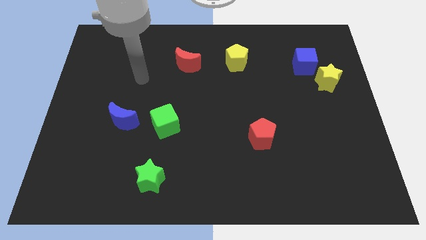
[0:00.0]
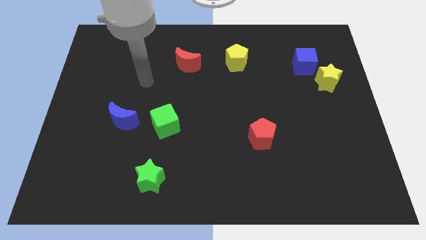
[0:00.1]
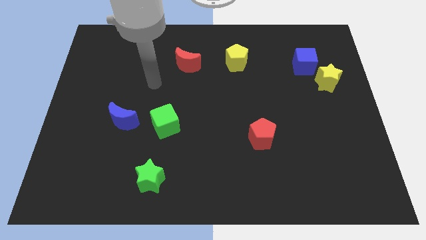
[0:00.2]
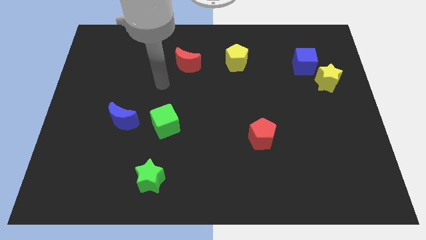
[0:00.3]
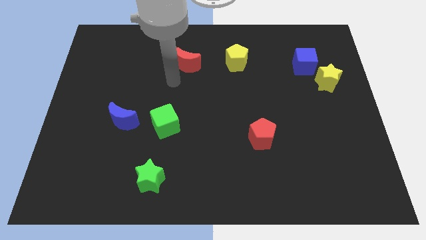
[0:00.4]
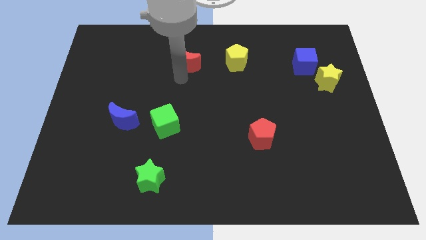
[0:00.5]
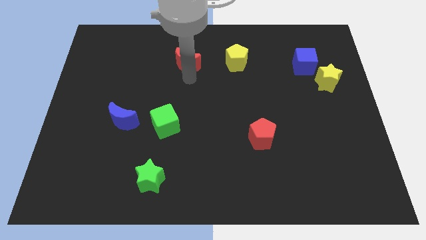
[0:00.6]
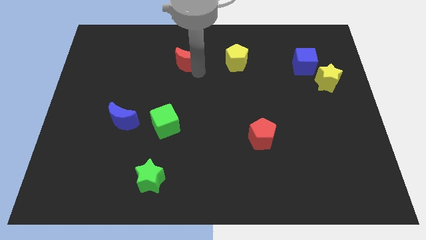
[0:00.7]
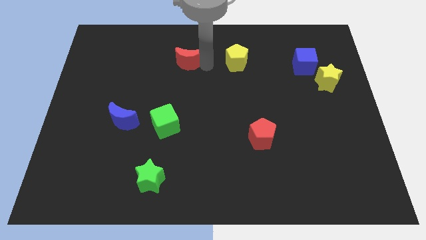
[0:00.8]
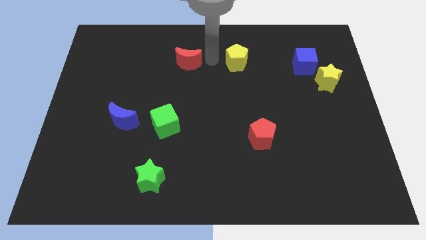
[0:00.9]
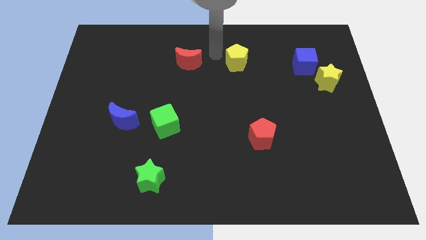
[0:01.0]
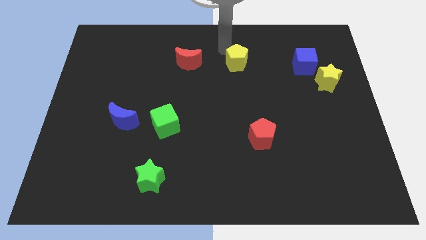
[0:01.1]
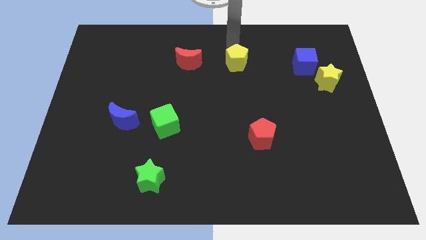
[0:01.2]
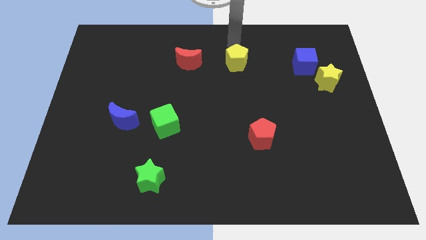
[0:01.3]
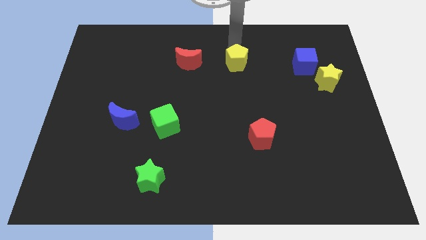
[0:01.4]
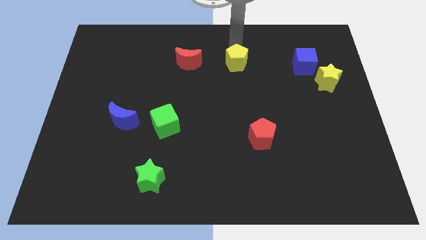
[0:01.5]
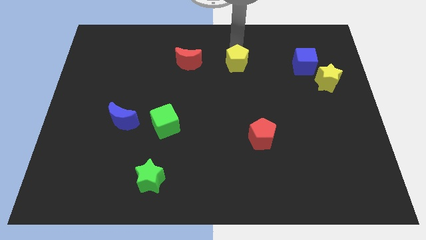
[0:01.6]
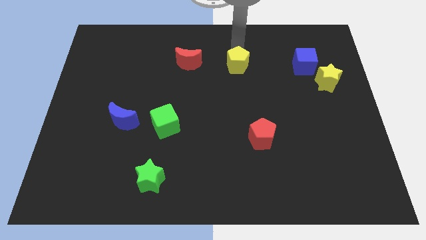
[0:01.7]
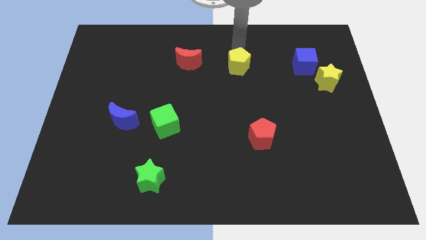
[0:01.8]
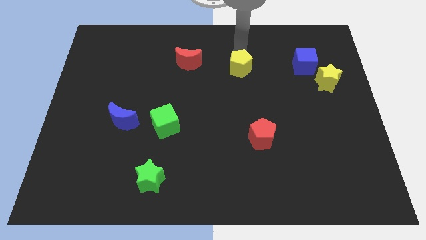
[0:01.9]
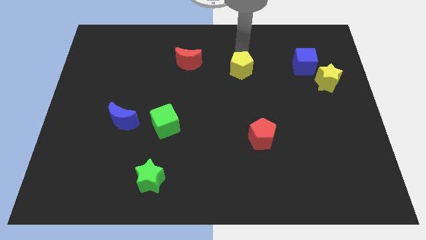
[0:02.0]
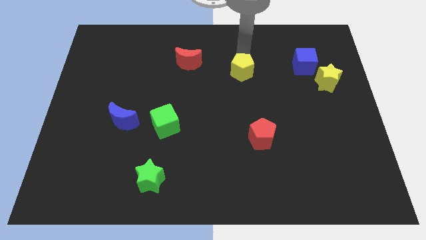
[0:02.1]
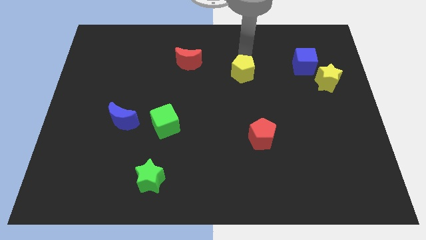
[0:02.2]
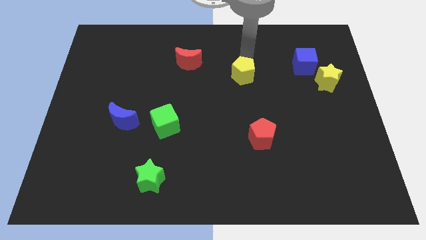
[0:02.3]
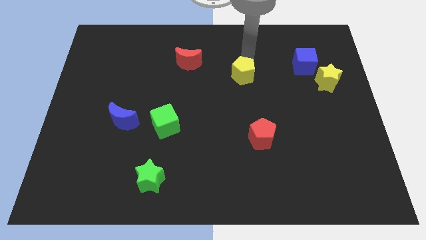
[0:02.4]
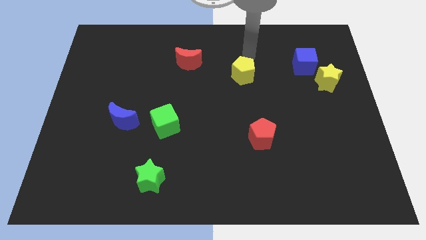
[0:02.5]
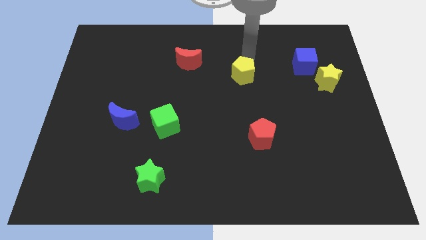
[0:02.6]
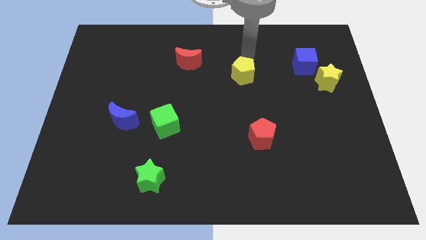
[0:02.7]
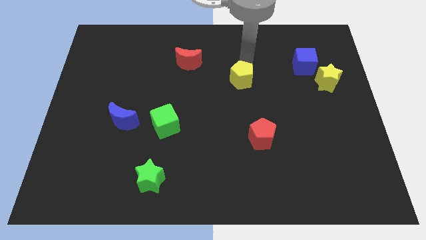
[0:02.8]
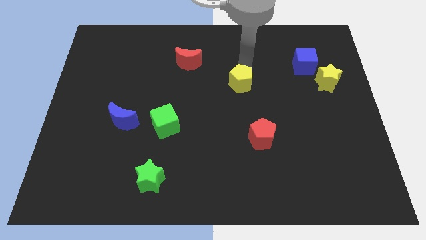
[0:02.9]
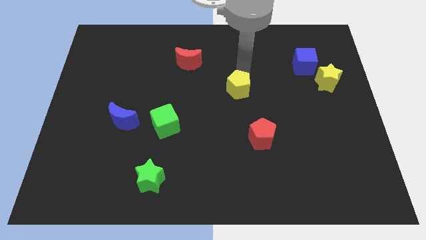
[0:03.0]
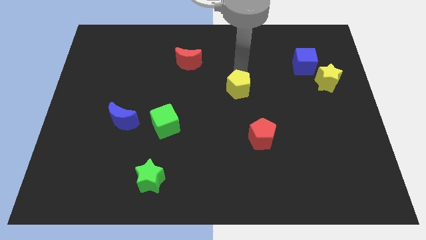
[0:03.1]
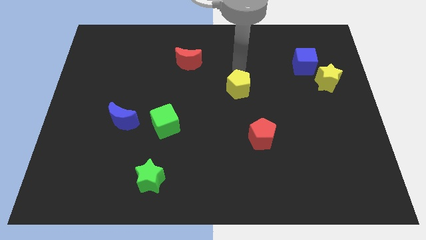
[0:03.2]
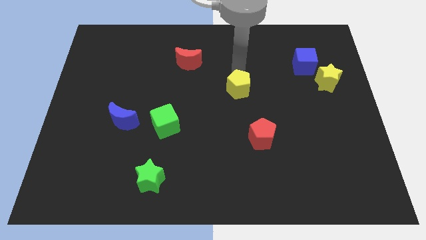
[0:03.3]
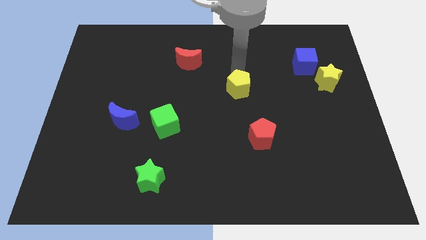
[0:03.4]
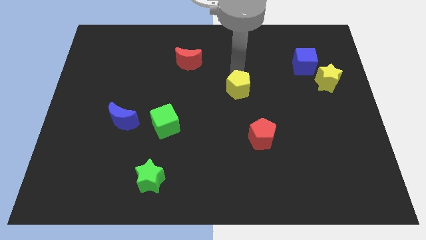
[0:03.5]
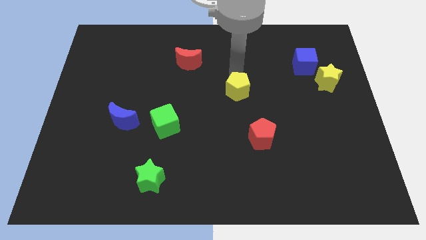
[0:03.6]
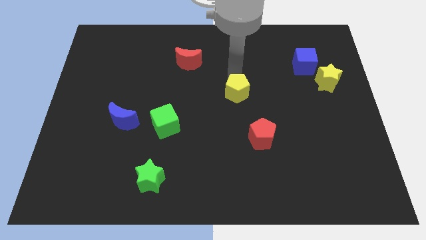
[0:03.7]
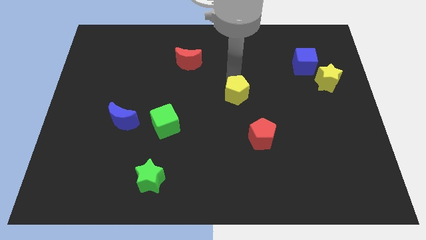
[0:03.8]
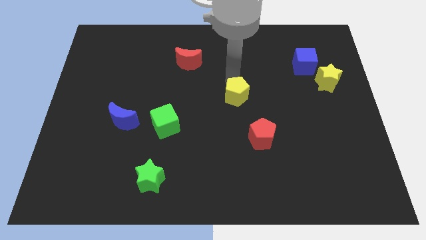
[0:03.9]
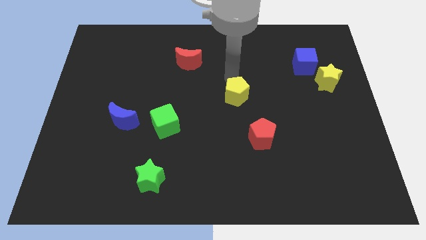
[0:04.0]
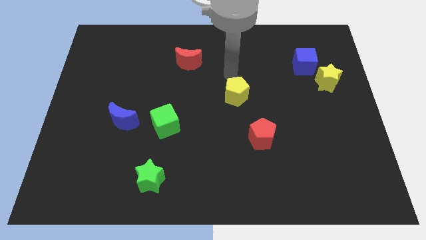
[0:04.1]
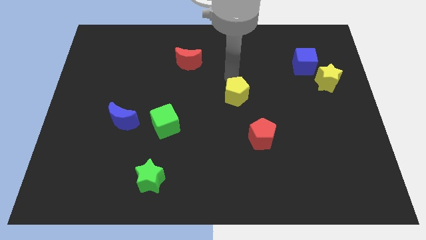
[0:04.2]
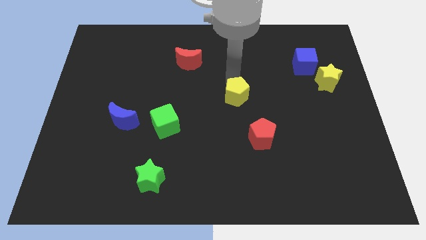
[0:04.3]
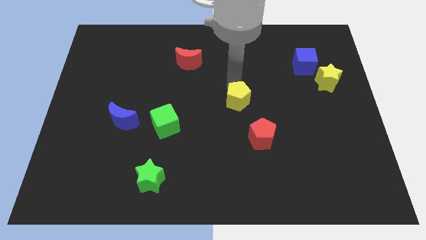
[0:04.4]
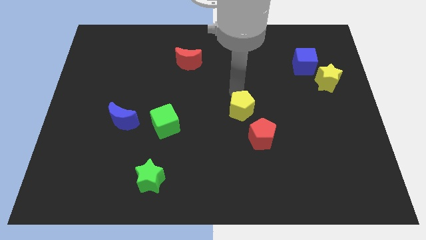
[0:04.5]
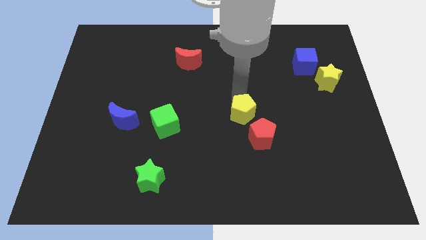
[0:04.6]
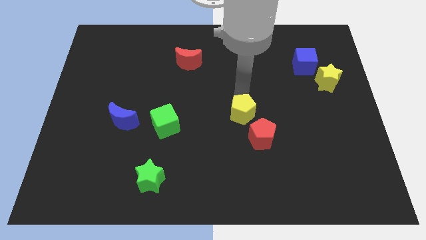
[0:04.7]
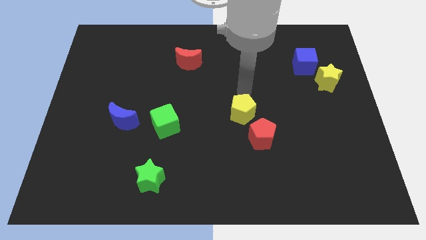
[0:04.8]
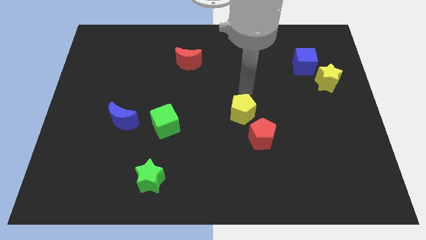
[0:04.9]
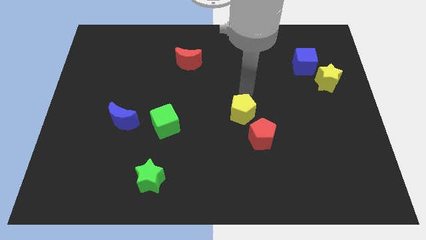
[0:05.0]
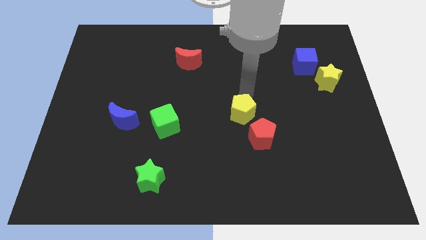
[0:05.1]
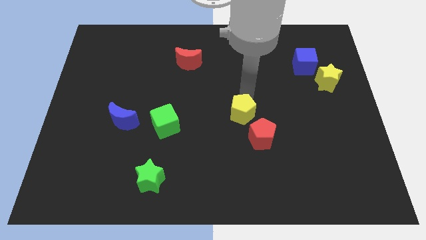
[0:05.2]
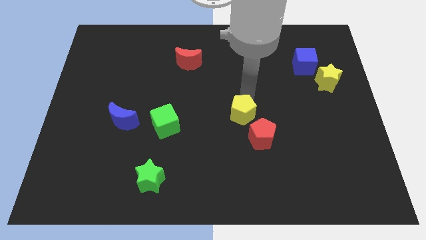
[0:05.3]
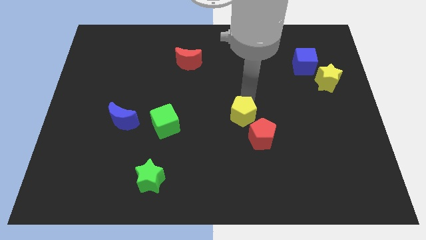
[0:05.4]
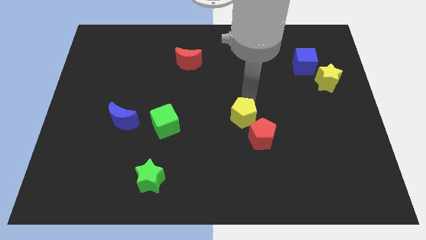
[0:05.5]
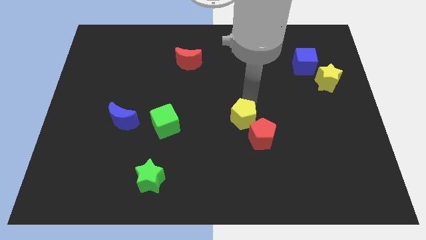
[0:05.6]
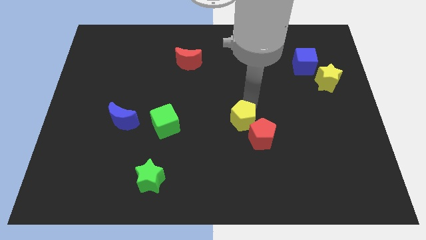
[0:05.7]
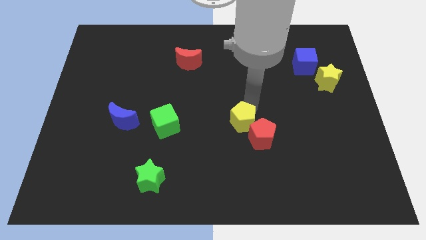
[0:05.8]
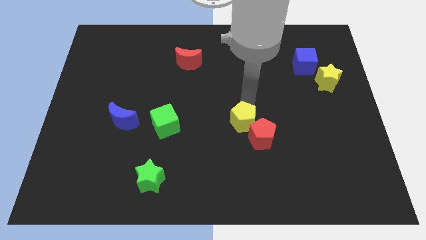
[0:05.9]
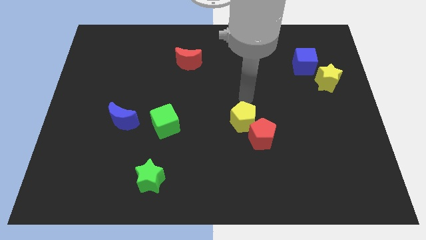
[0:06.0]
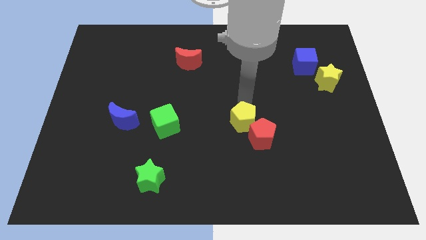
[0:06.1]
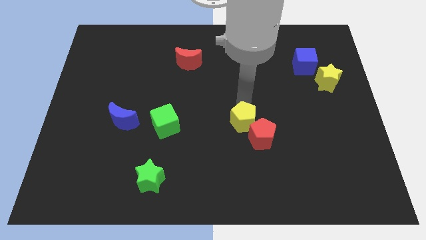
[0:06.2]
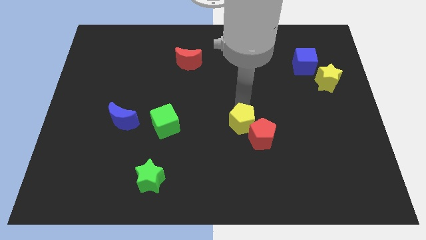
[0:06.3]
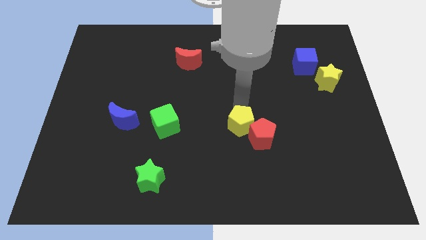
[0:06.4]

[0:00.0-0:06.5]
push the yellow pentagon downwards

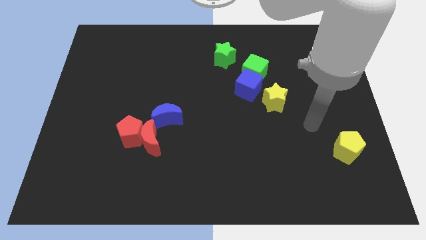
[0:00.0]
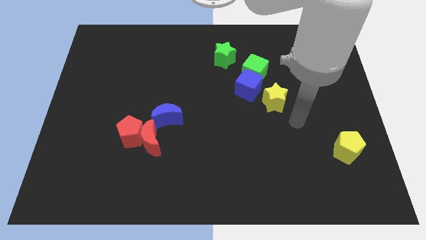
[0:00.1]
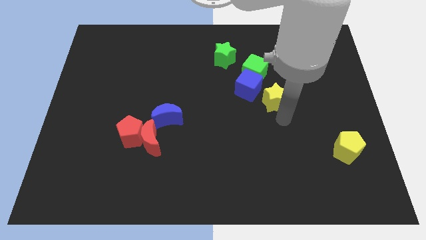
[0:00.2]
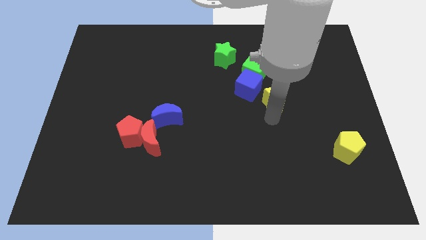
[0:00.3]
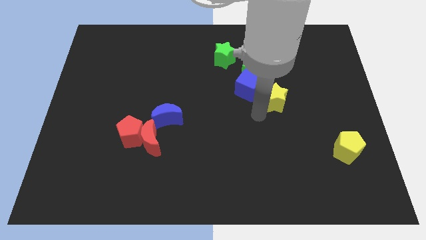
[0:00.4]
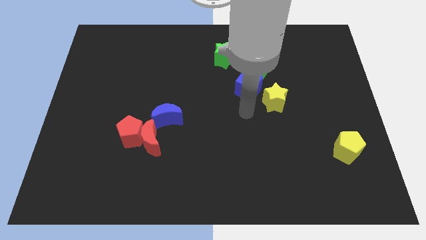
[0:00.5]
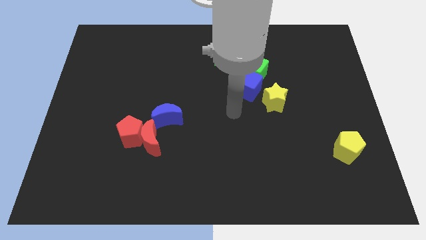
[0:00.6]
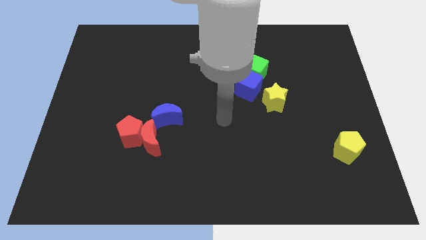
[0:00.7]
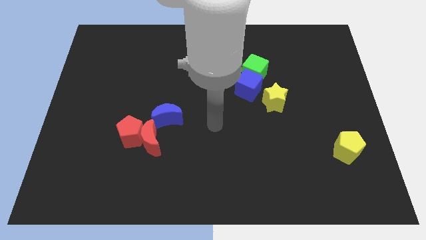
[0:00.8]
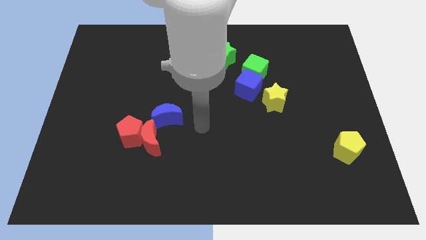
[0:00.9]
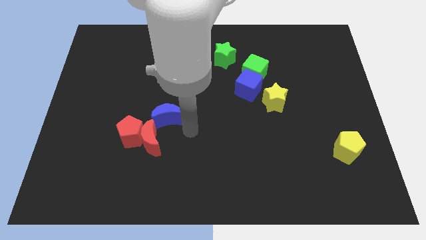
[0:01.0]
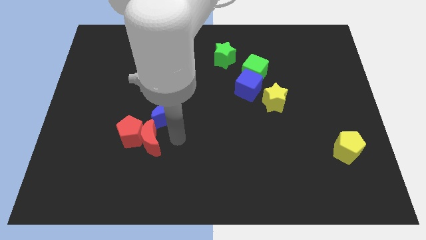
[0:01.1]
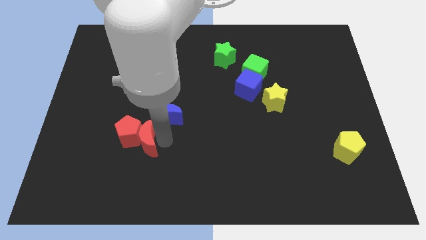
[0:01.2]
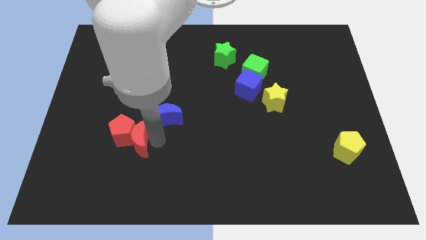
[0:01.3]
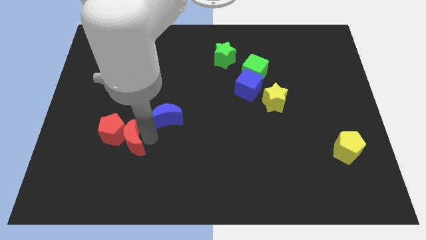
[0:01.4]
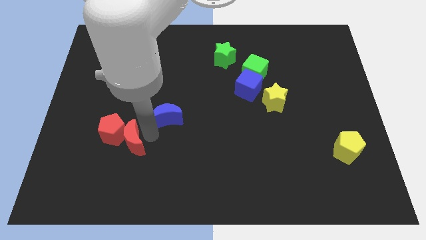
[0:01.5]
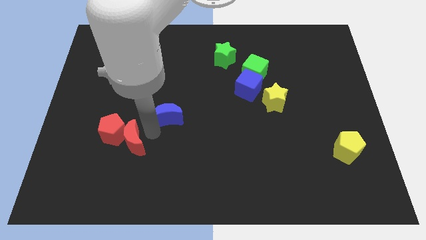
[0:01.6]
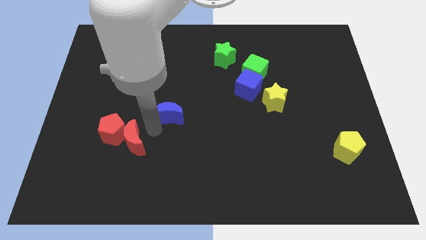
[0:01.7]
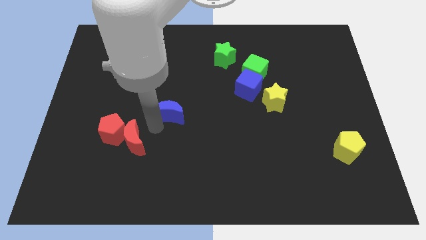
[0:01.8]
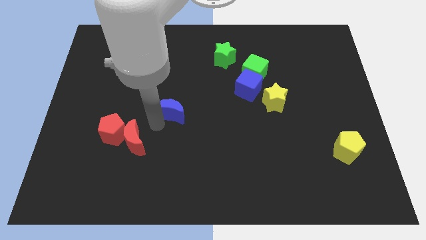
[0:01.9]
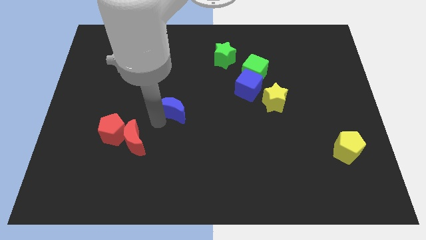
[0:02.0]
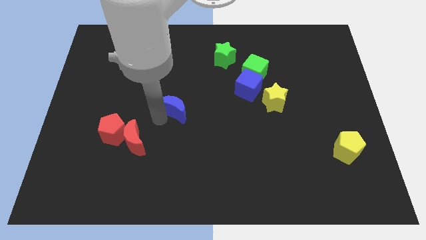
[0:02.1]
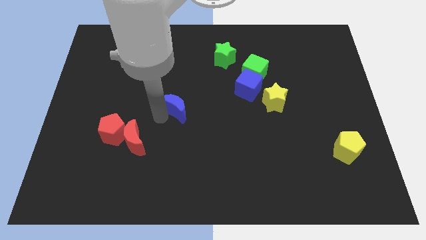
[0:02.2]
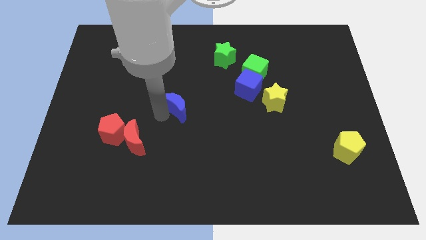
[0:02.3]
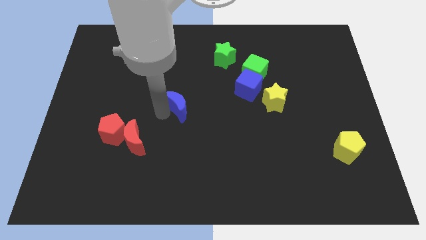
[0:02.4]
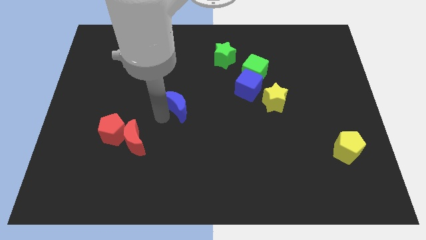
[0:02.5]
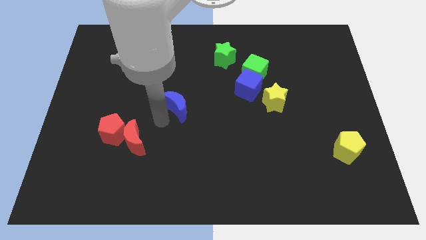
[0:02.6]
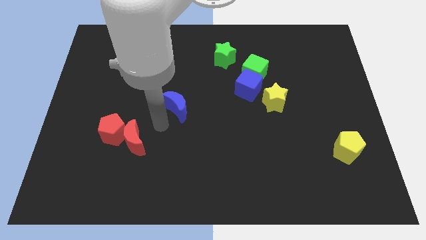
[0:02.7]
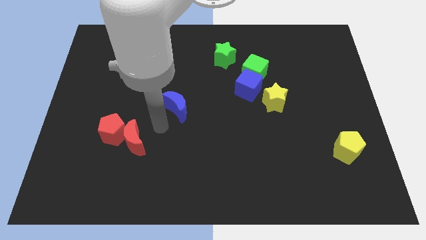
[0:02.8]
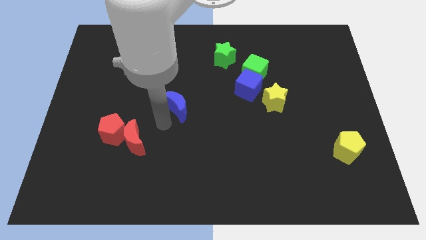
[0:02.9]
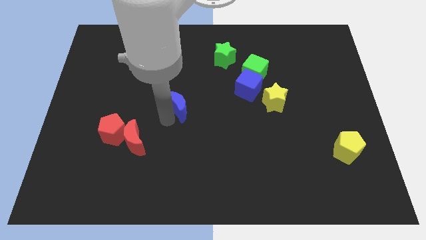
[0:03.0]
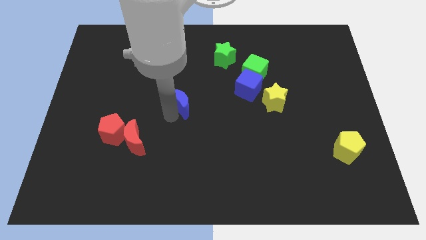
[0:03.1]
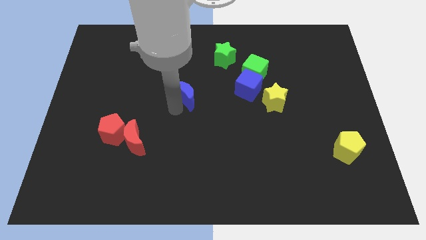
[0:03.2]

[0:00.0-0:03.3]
slightly move the blue moon up and right diagonally
